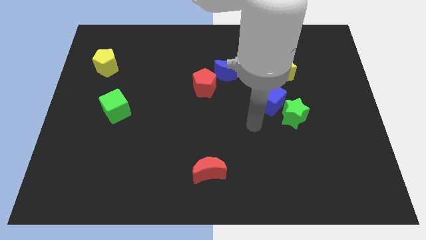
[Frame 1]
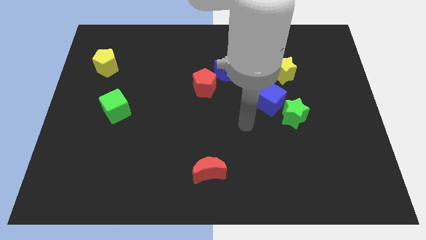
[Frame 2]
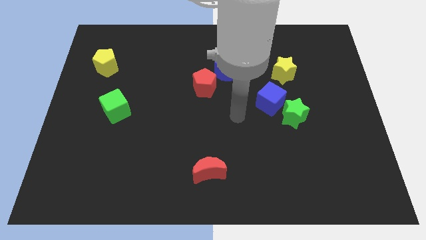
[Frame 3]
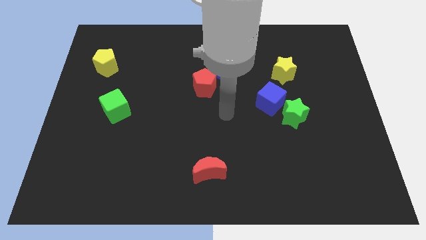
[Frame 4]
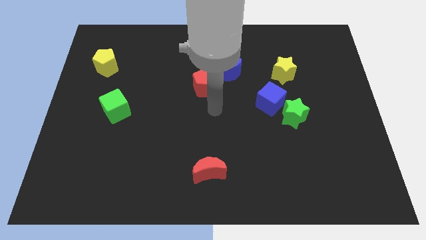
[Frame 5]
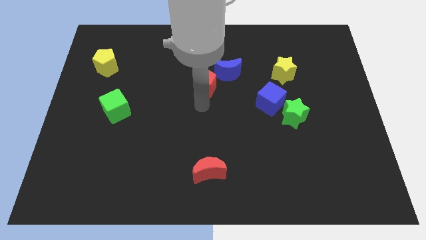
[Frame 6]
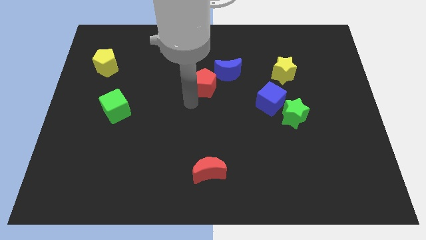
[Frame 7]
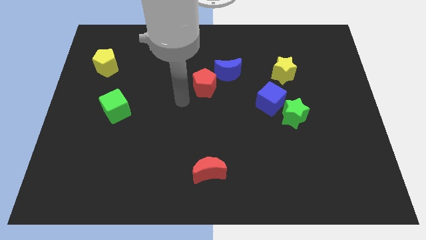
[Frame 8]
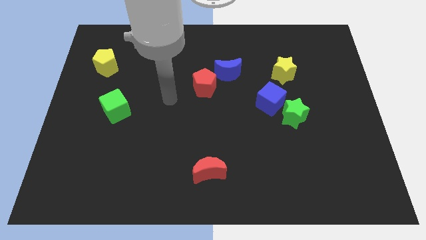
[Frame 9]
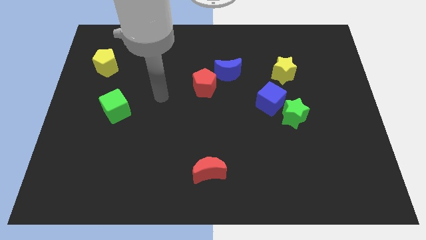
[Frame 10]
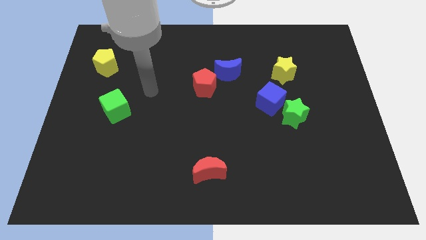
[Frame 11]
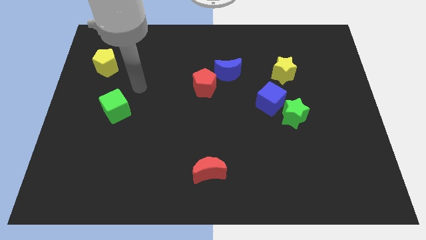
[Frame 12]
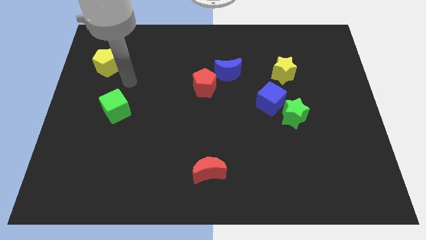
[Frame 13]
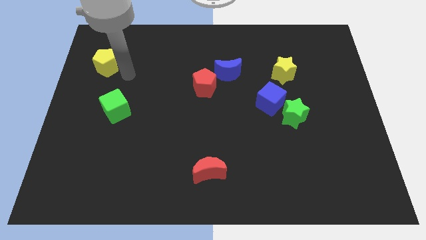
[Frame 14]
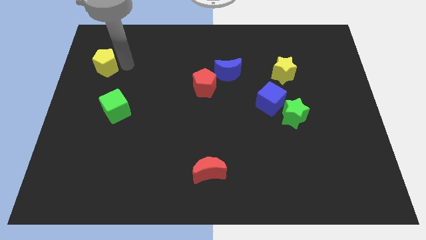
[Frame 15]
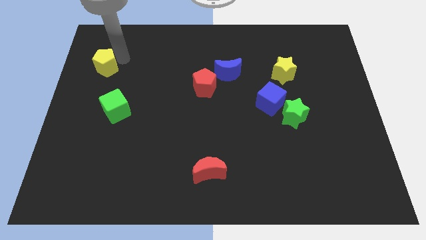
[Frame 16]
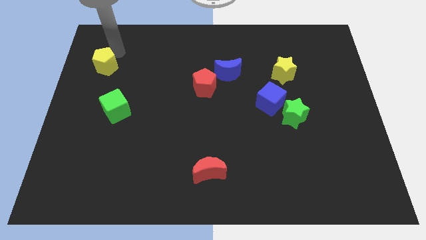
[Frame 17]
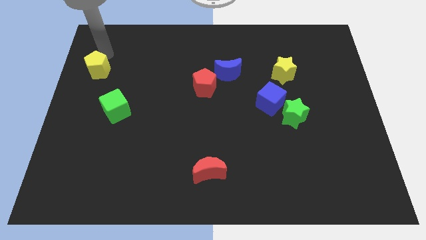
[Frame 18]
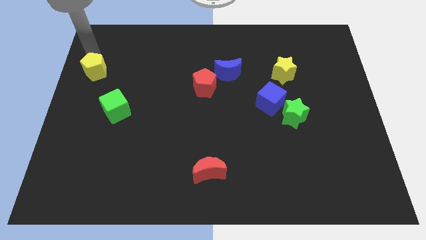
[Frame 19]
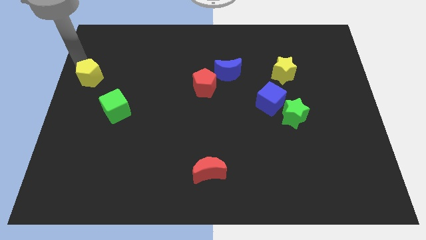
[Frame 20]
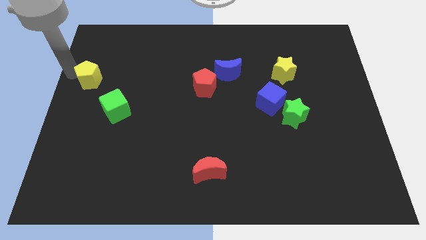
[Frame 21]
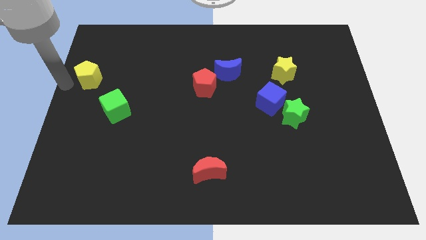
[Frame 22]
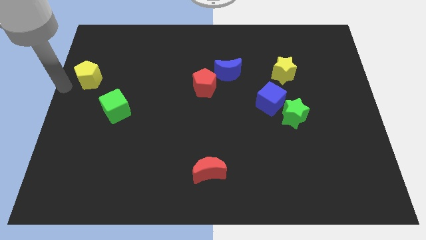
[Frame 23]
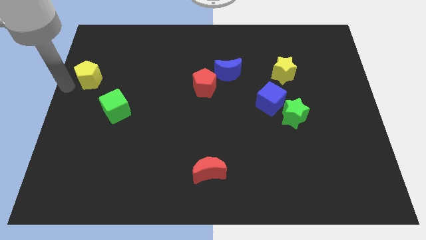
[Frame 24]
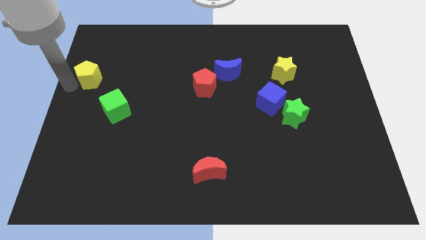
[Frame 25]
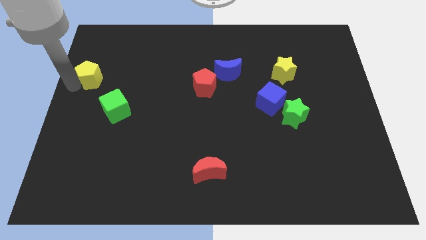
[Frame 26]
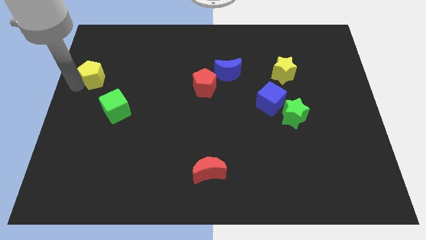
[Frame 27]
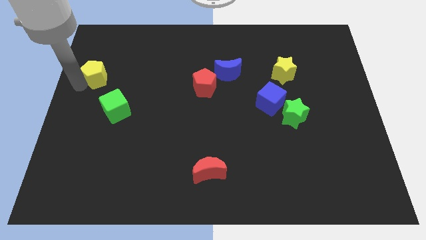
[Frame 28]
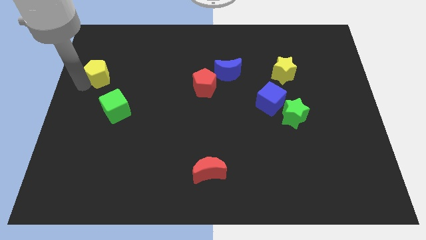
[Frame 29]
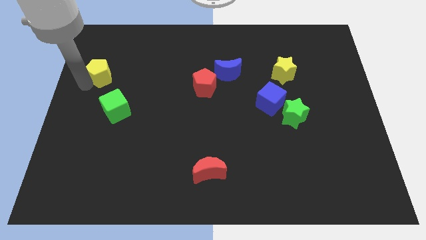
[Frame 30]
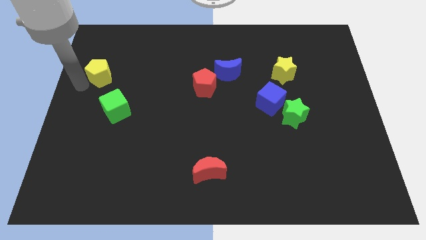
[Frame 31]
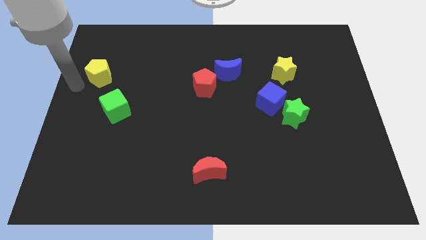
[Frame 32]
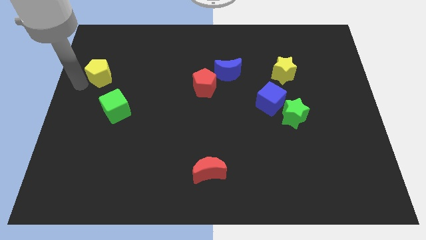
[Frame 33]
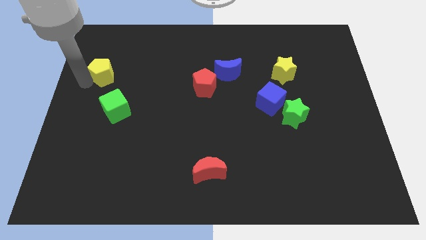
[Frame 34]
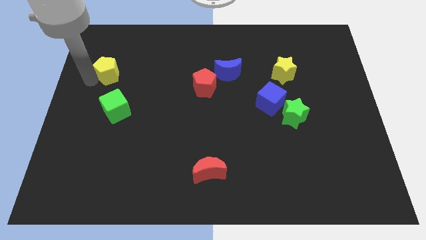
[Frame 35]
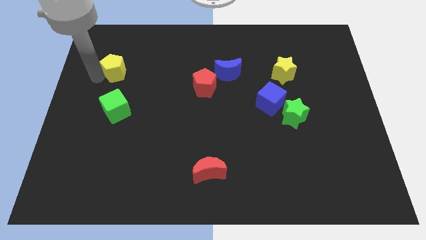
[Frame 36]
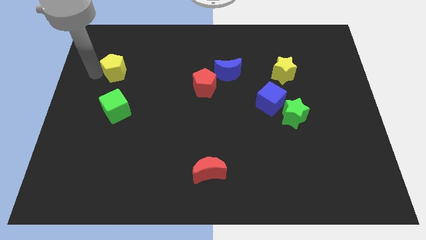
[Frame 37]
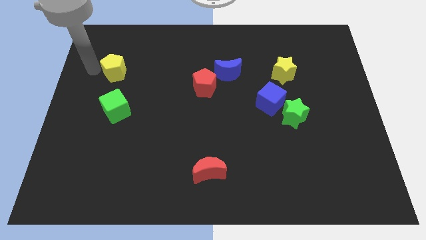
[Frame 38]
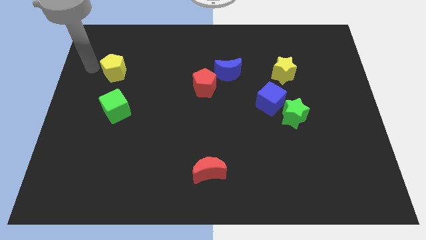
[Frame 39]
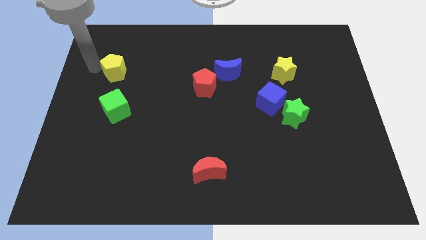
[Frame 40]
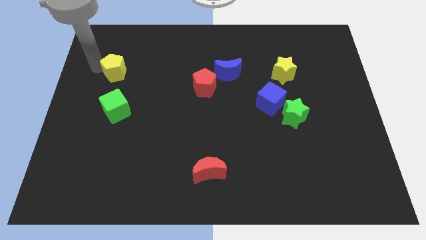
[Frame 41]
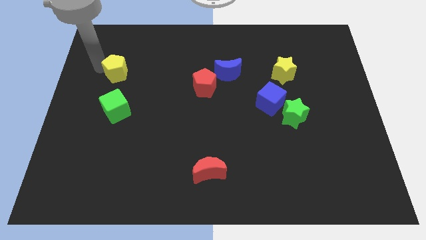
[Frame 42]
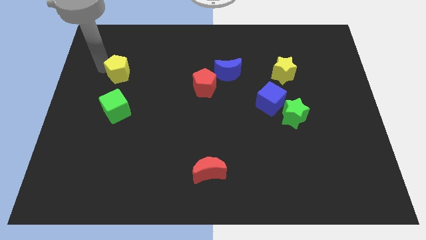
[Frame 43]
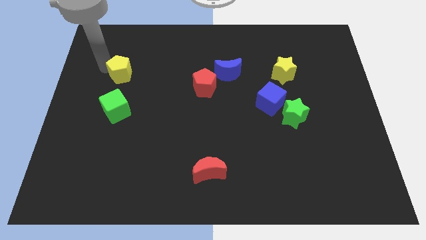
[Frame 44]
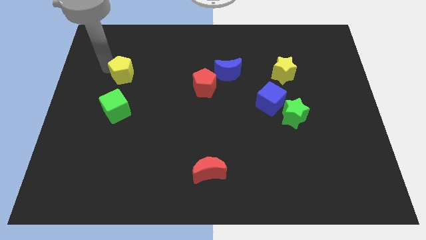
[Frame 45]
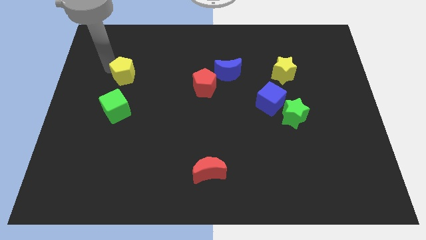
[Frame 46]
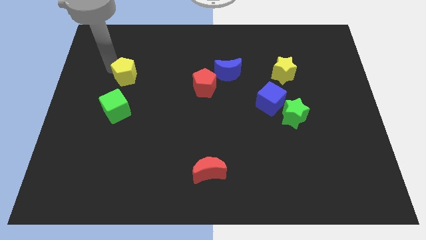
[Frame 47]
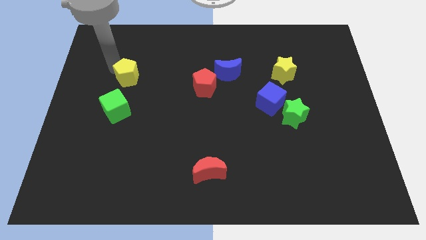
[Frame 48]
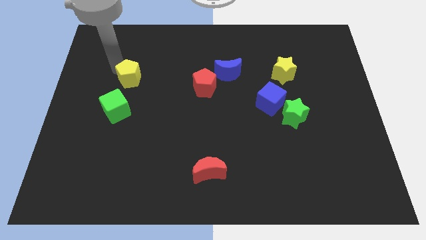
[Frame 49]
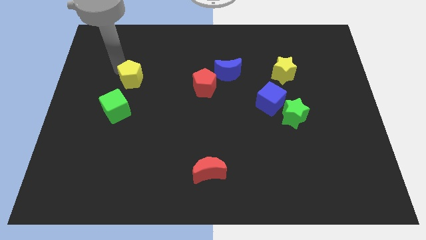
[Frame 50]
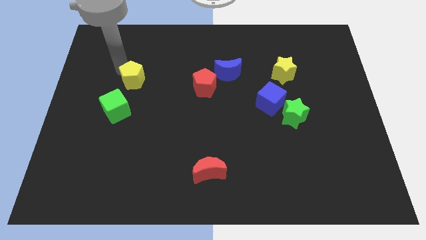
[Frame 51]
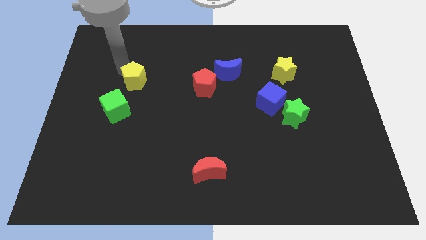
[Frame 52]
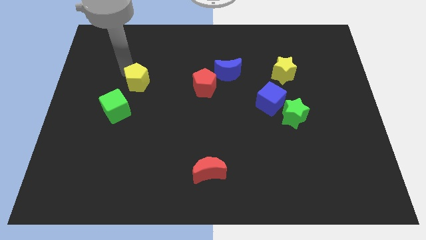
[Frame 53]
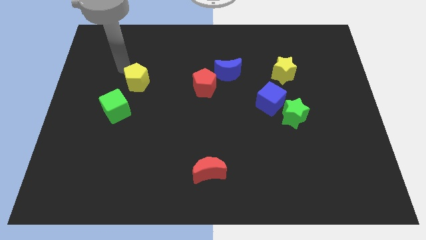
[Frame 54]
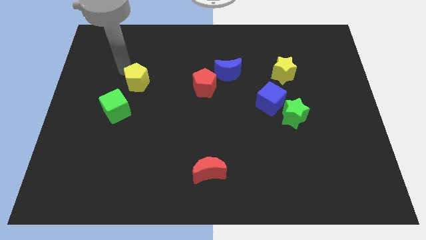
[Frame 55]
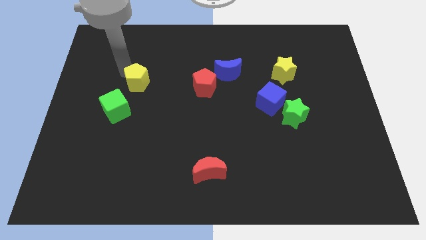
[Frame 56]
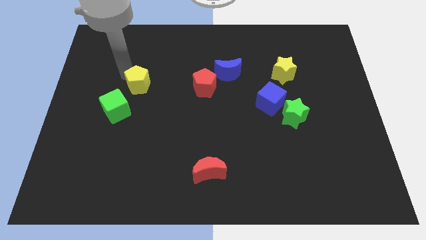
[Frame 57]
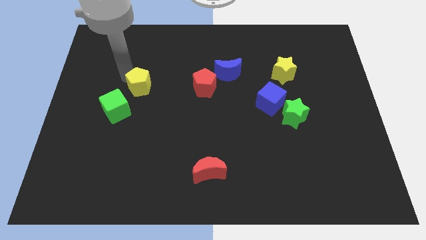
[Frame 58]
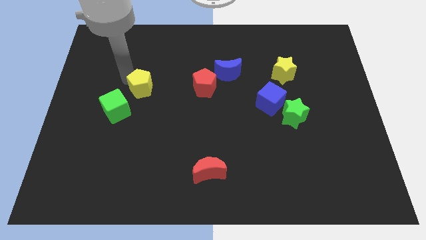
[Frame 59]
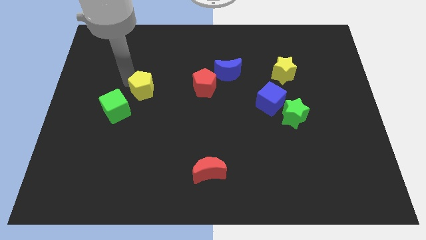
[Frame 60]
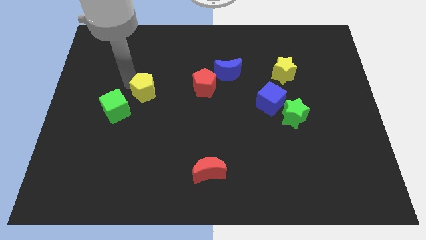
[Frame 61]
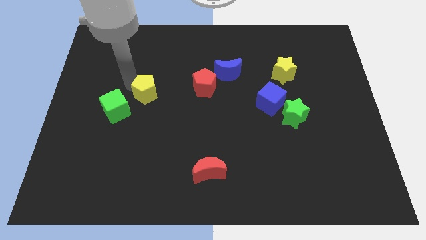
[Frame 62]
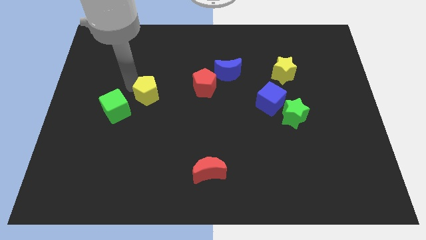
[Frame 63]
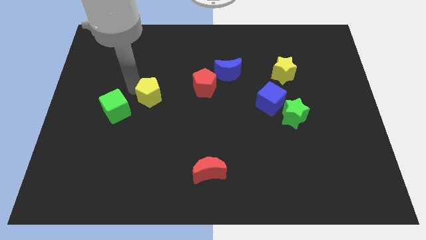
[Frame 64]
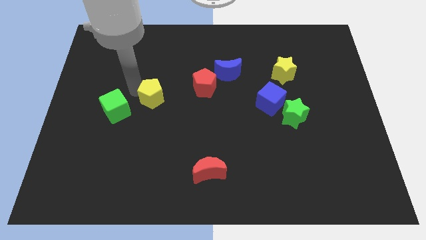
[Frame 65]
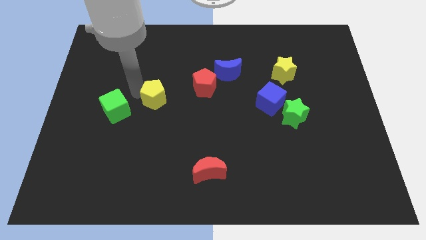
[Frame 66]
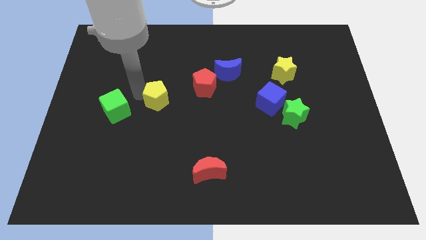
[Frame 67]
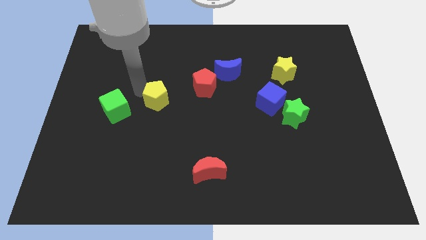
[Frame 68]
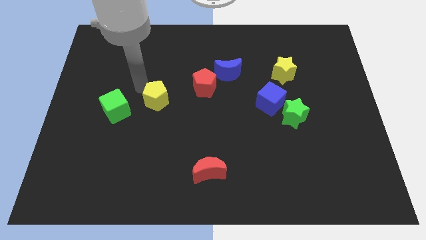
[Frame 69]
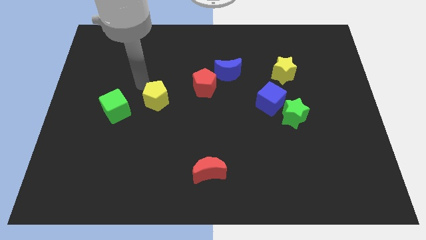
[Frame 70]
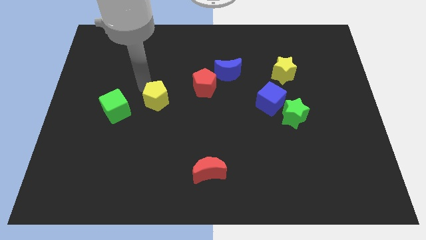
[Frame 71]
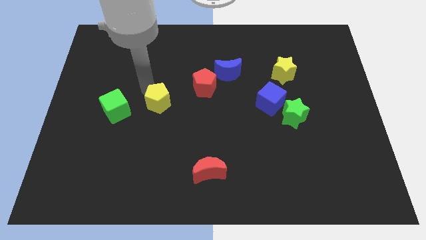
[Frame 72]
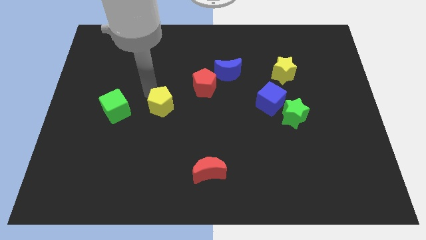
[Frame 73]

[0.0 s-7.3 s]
slide the yellow pentagon down and right

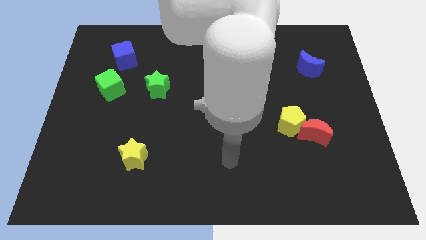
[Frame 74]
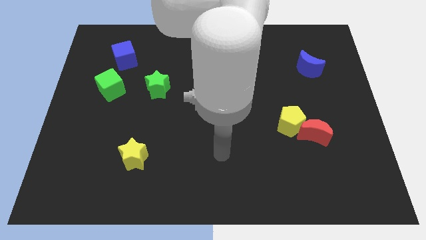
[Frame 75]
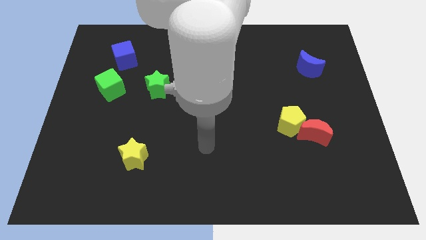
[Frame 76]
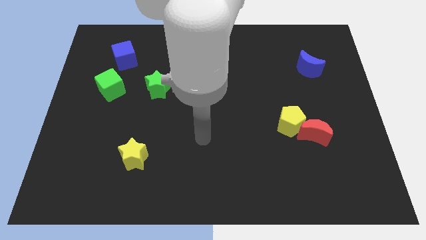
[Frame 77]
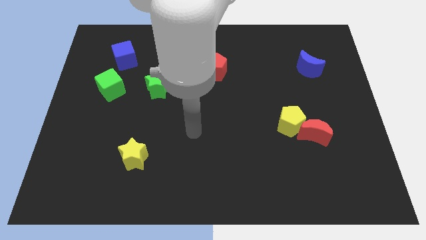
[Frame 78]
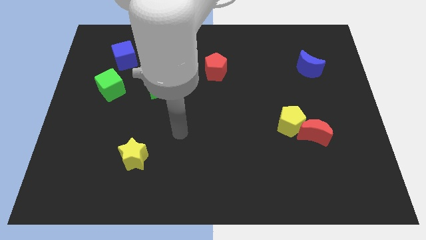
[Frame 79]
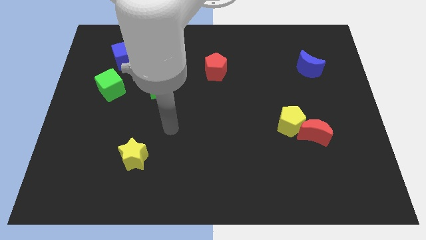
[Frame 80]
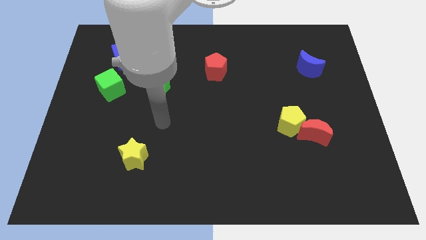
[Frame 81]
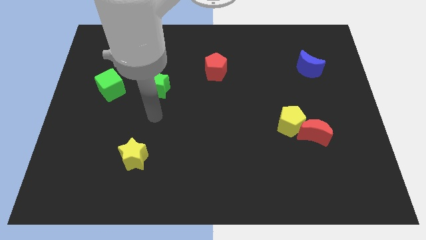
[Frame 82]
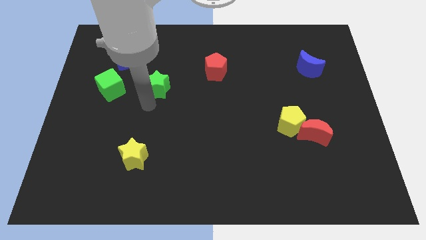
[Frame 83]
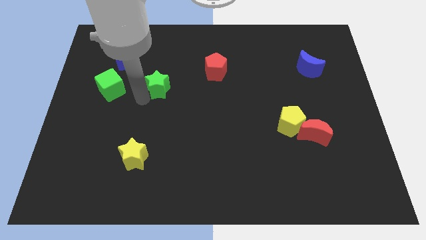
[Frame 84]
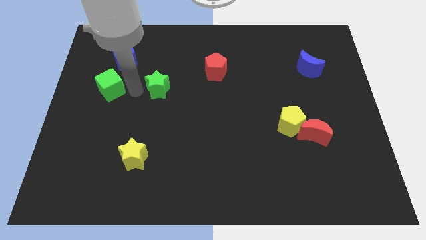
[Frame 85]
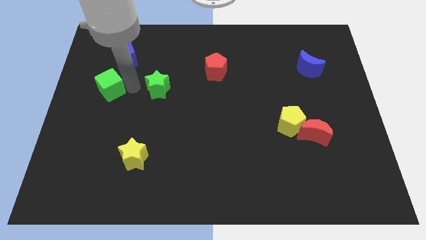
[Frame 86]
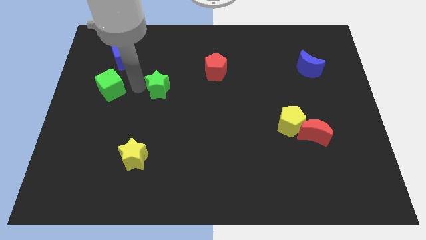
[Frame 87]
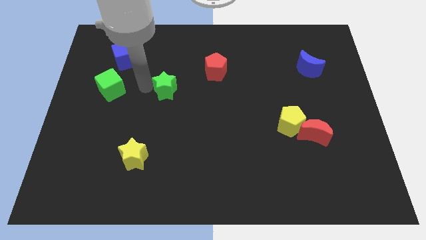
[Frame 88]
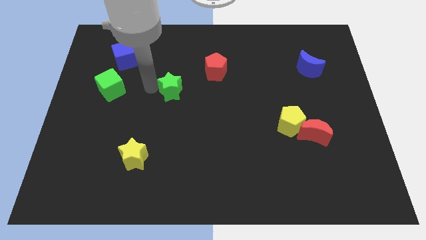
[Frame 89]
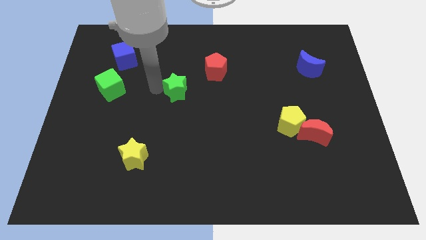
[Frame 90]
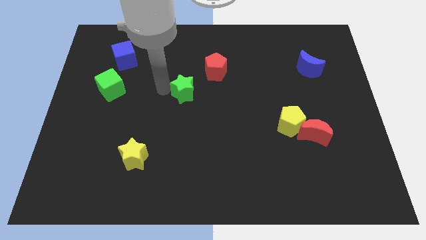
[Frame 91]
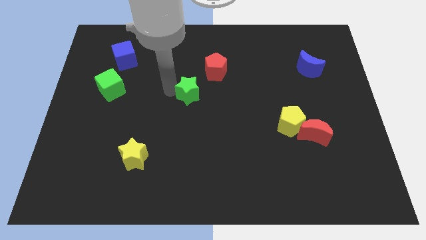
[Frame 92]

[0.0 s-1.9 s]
slightly push the green star to the right
